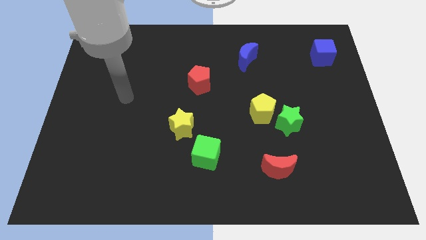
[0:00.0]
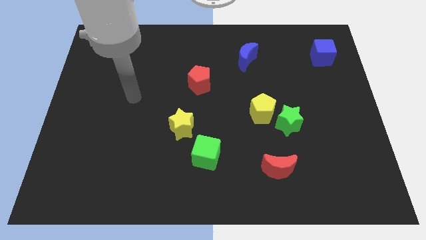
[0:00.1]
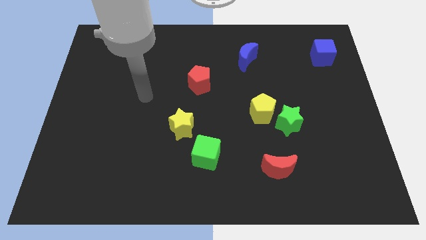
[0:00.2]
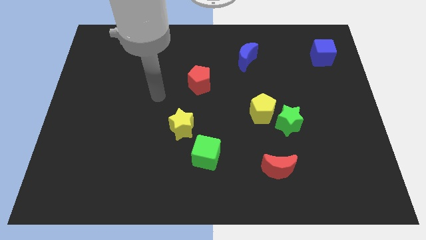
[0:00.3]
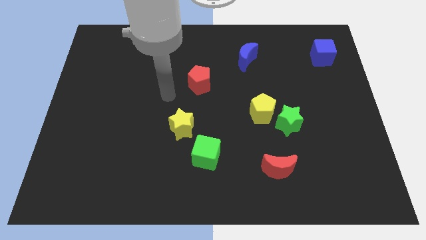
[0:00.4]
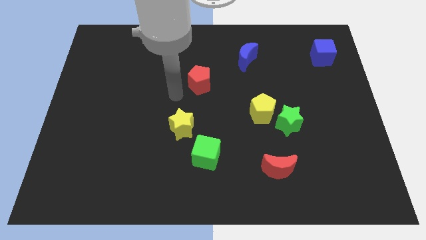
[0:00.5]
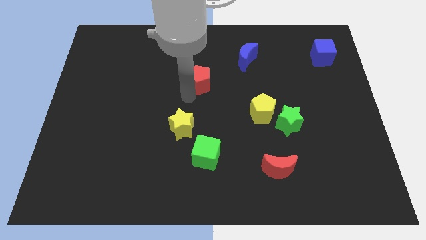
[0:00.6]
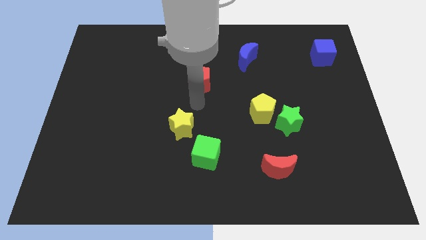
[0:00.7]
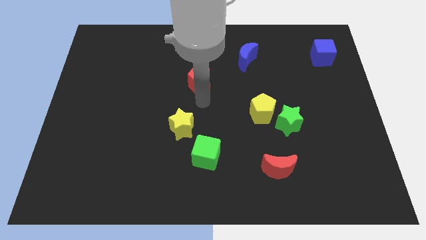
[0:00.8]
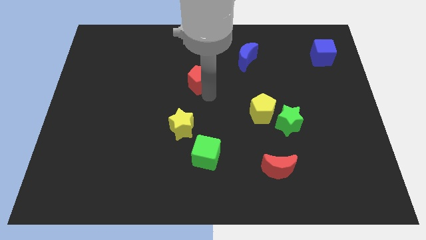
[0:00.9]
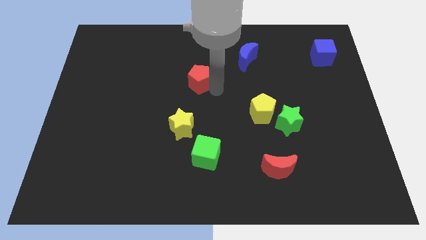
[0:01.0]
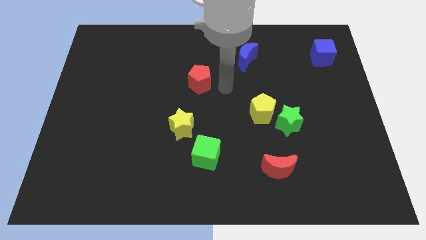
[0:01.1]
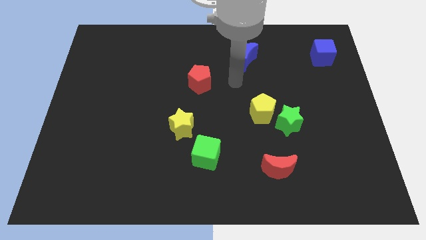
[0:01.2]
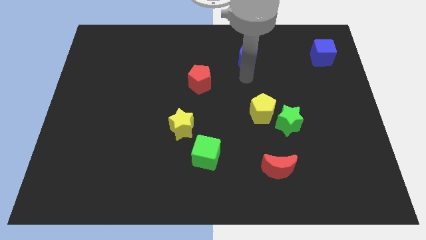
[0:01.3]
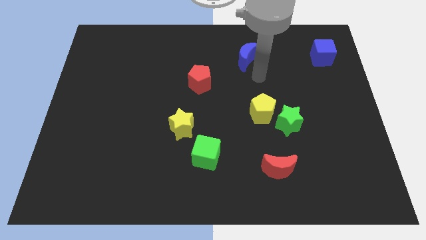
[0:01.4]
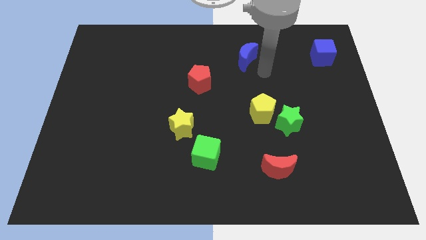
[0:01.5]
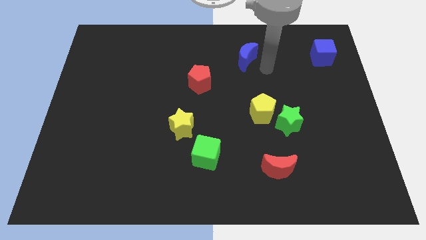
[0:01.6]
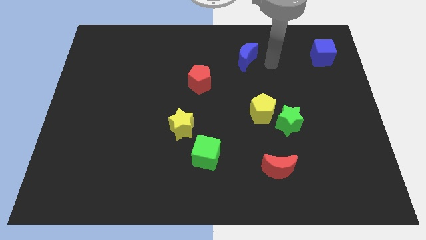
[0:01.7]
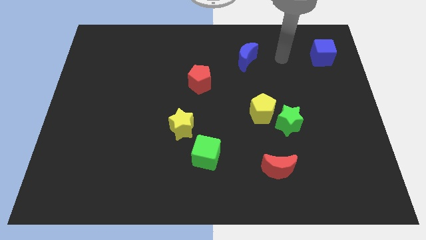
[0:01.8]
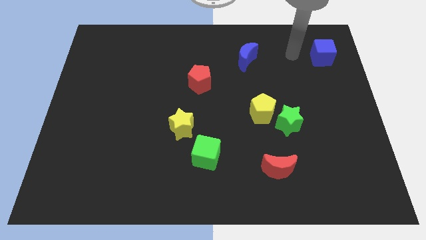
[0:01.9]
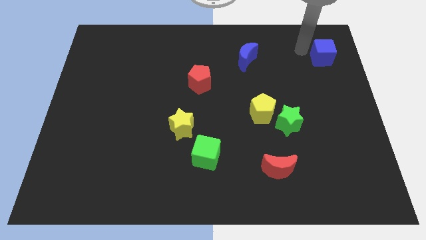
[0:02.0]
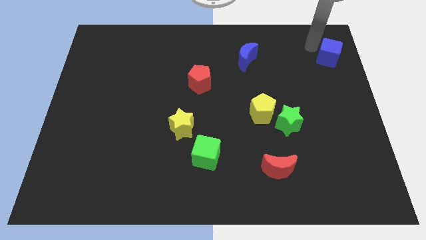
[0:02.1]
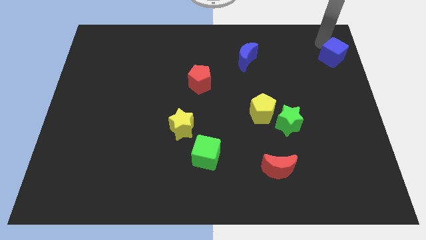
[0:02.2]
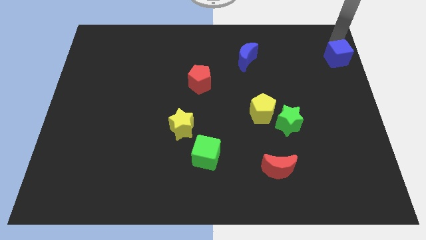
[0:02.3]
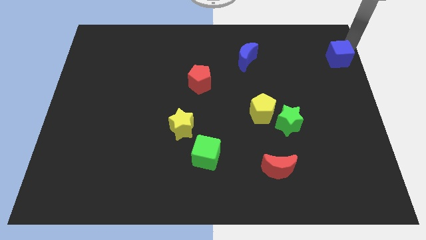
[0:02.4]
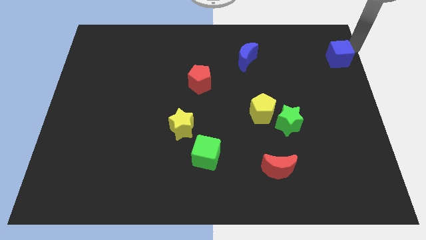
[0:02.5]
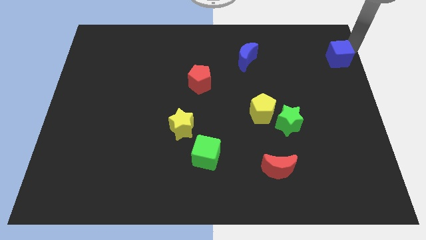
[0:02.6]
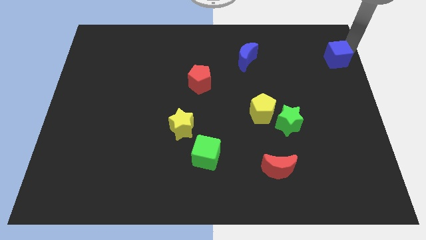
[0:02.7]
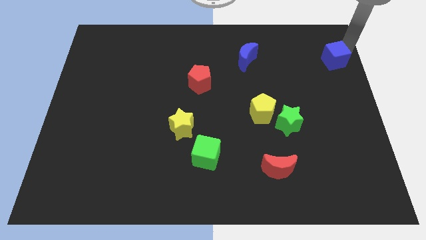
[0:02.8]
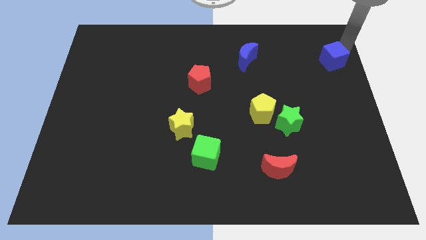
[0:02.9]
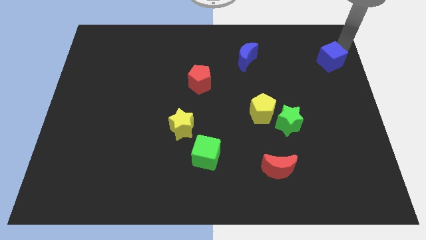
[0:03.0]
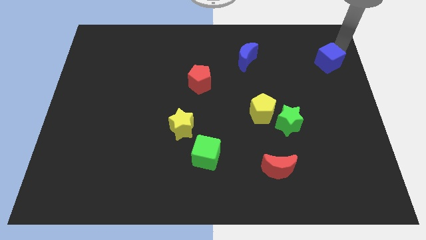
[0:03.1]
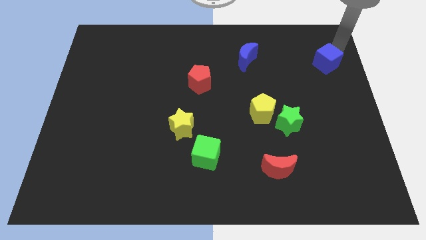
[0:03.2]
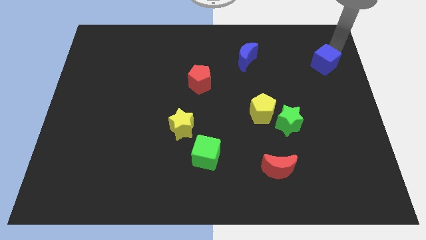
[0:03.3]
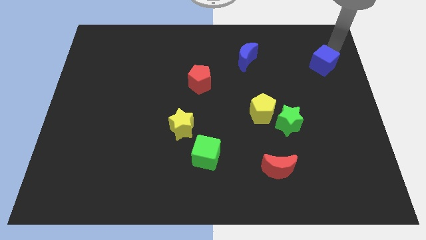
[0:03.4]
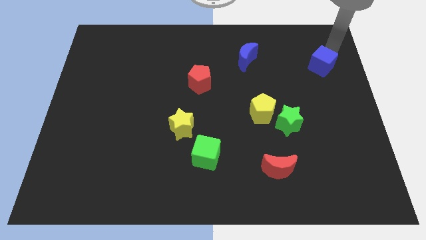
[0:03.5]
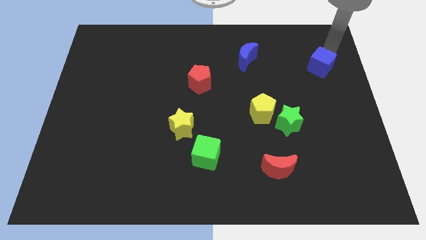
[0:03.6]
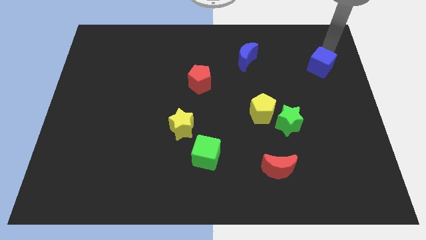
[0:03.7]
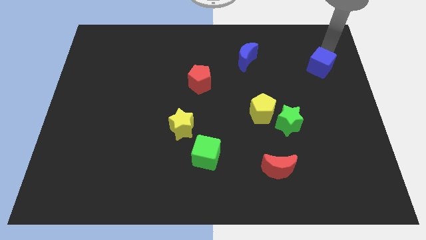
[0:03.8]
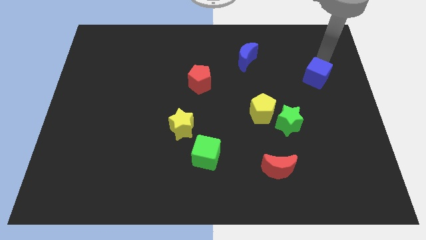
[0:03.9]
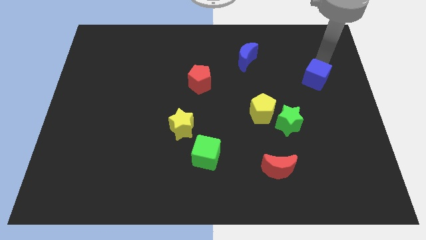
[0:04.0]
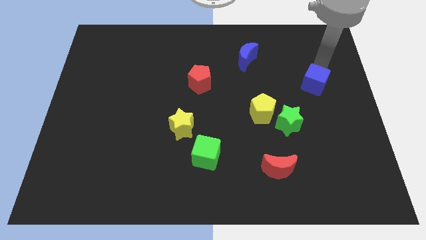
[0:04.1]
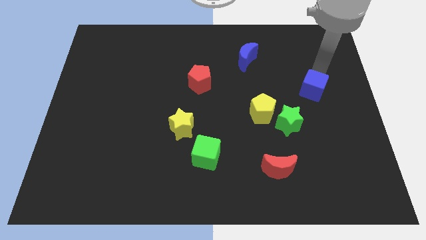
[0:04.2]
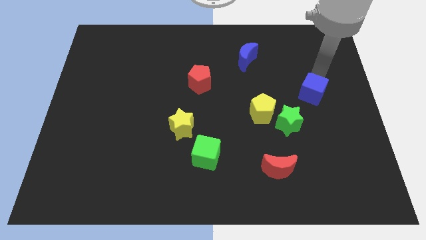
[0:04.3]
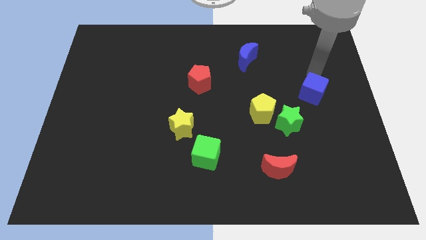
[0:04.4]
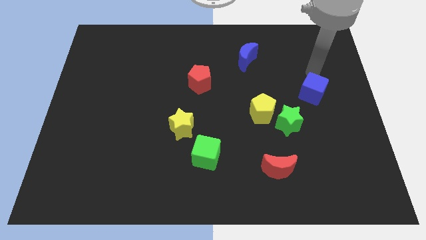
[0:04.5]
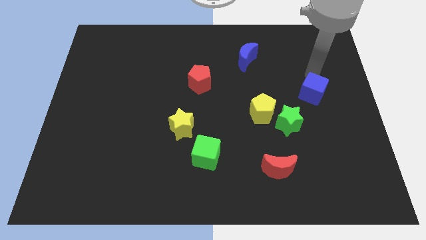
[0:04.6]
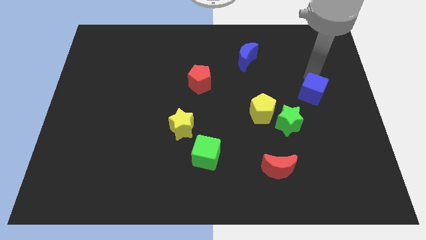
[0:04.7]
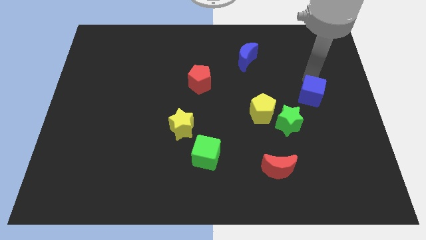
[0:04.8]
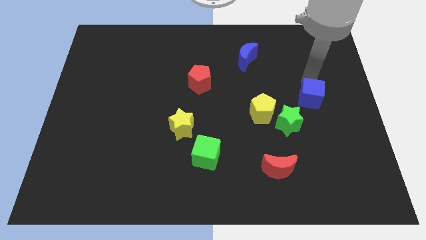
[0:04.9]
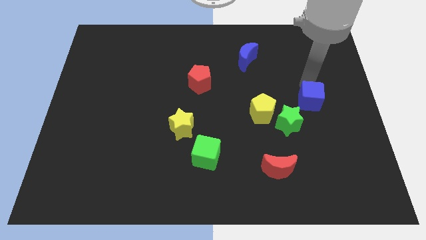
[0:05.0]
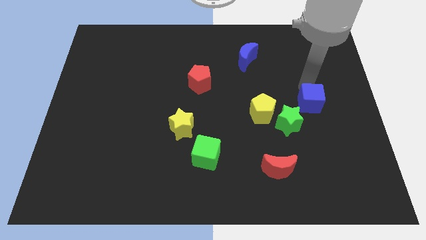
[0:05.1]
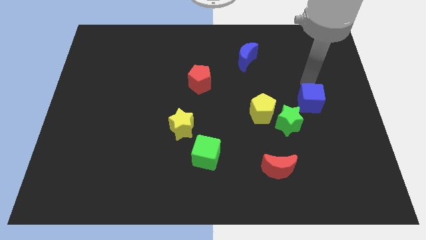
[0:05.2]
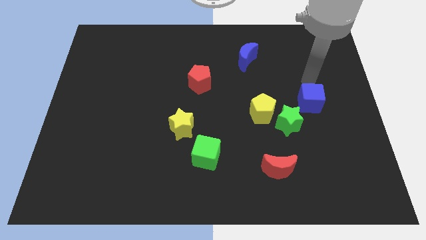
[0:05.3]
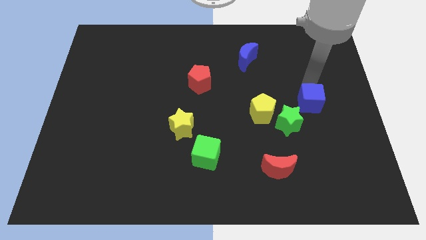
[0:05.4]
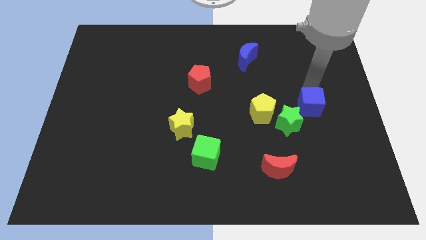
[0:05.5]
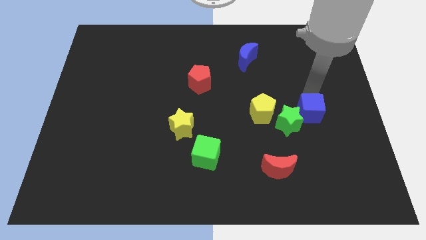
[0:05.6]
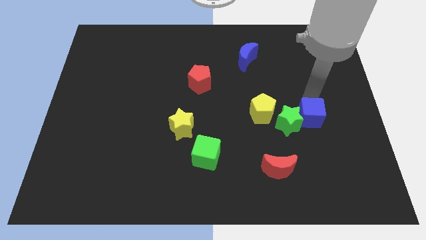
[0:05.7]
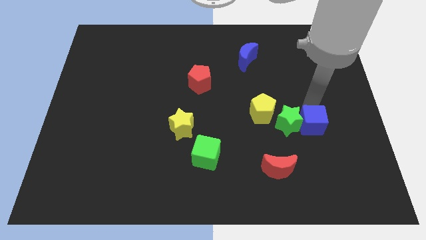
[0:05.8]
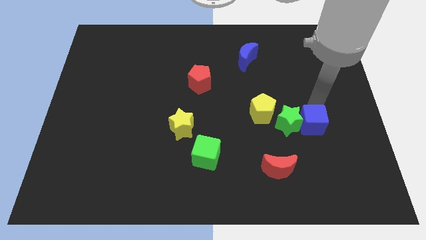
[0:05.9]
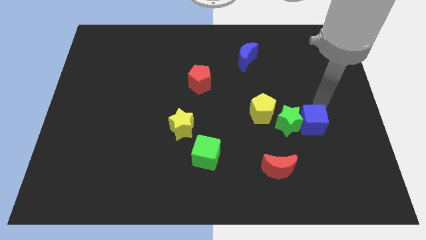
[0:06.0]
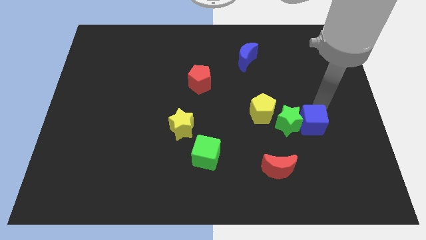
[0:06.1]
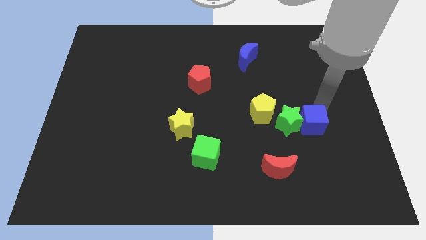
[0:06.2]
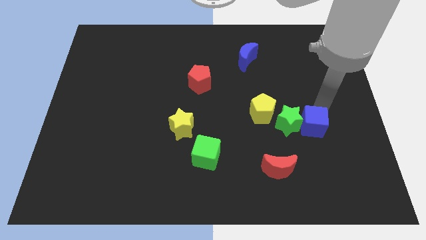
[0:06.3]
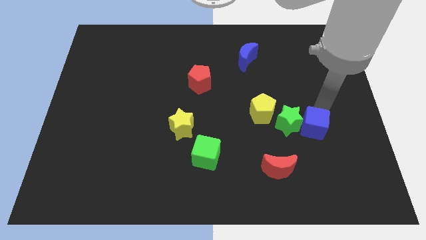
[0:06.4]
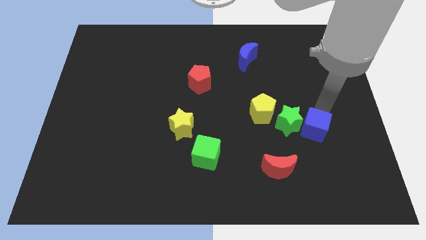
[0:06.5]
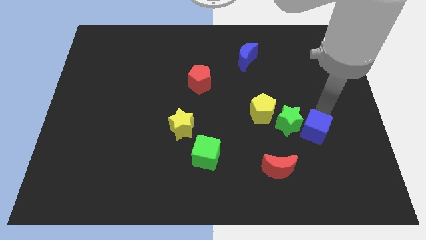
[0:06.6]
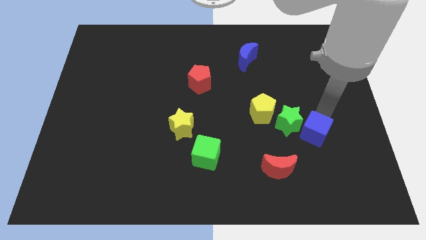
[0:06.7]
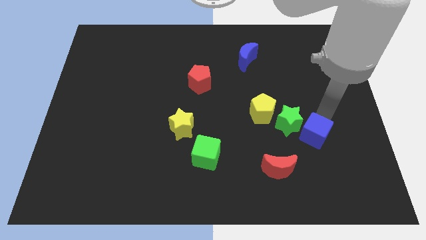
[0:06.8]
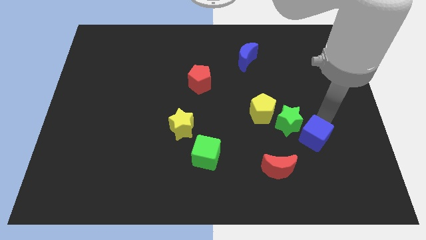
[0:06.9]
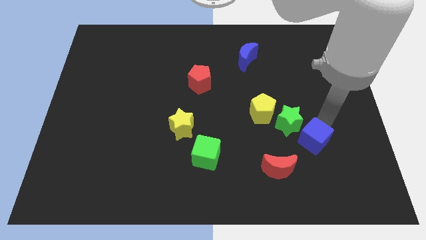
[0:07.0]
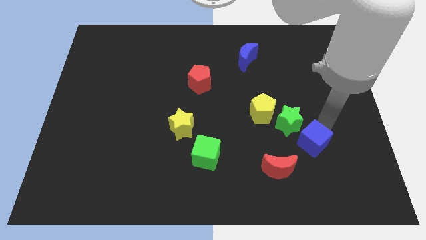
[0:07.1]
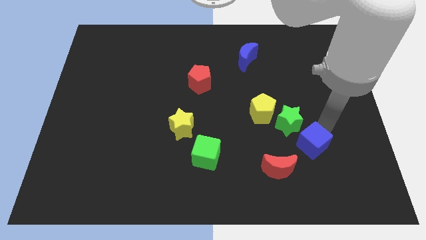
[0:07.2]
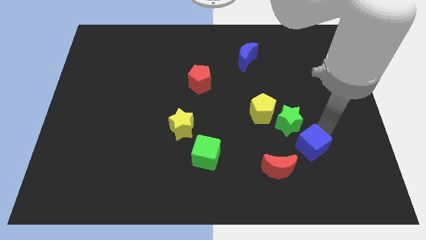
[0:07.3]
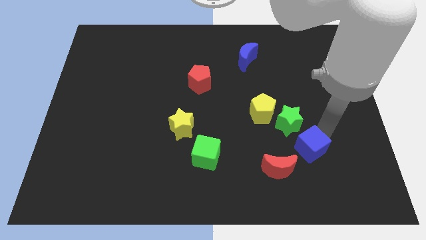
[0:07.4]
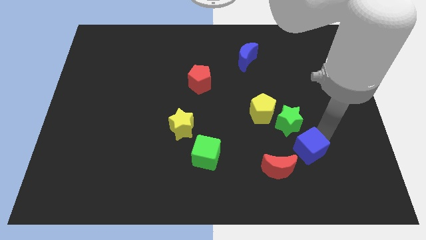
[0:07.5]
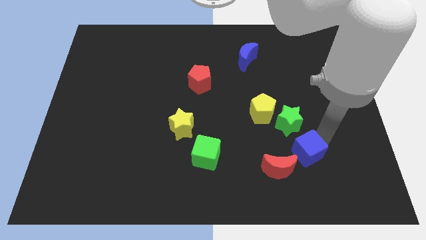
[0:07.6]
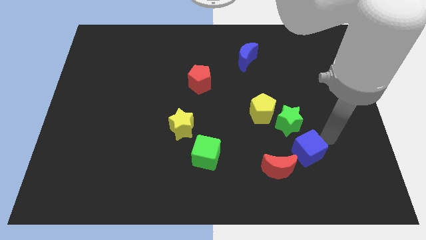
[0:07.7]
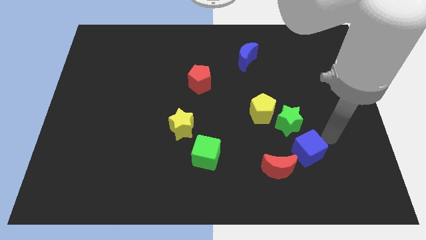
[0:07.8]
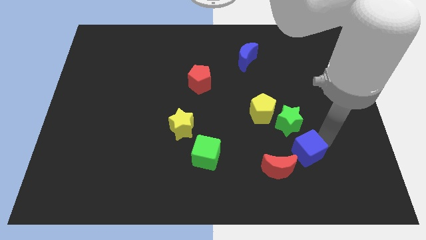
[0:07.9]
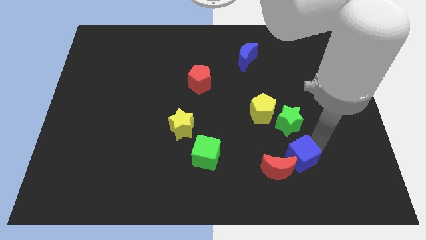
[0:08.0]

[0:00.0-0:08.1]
push the blue cube close to the red moon
